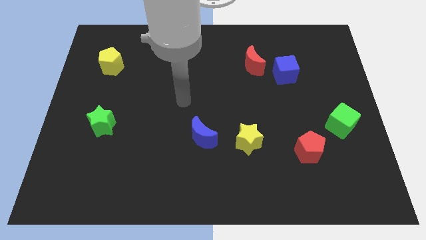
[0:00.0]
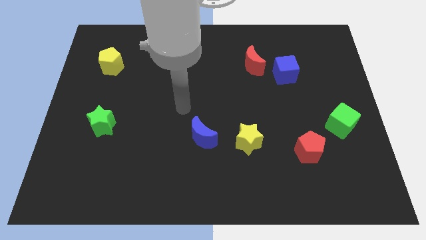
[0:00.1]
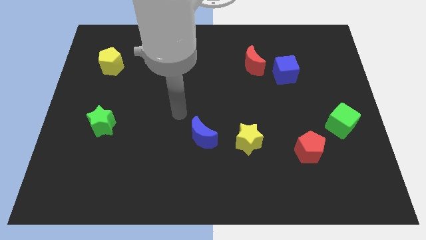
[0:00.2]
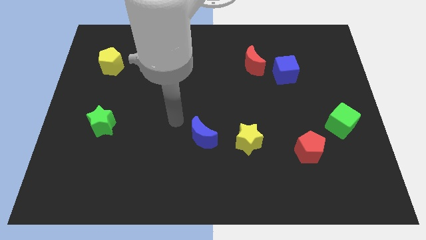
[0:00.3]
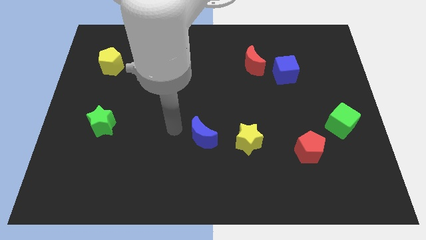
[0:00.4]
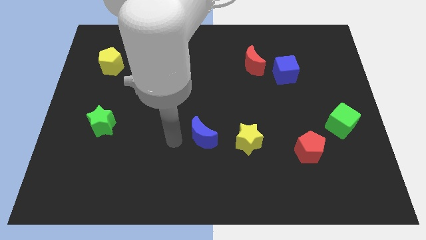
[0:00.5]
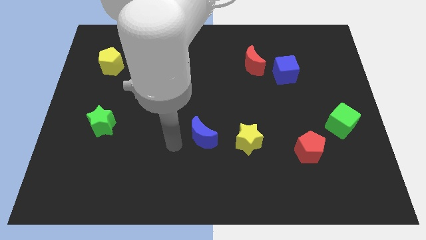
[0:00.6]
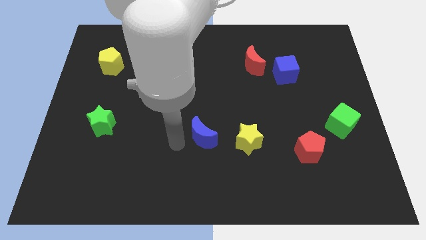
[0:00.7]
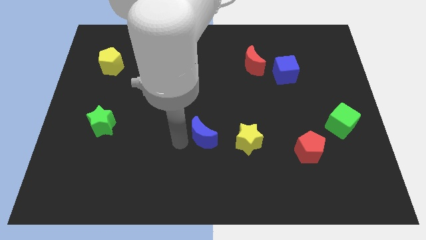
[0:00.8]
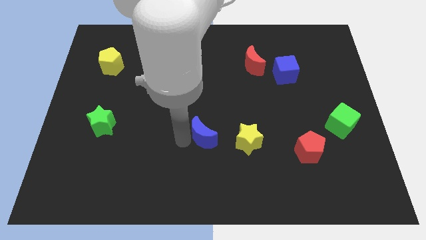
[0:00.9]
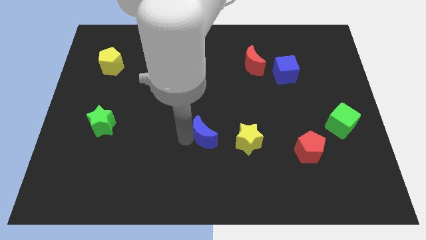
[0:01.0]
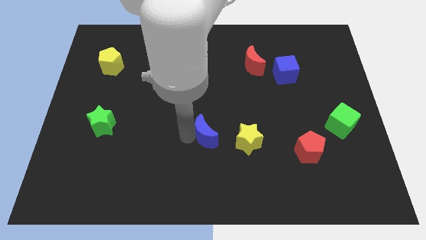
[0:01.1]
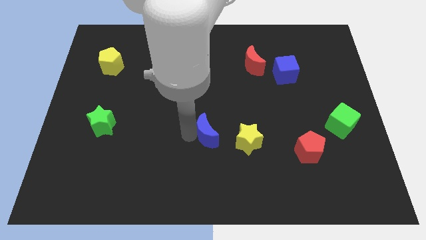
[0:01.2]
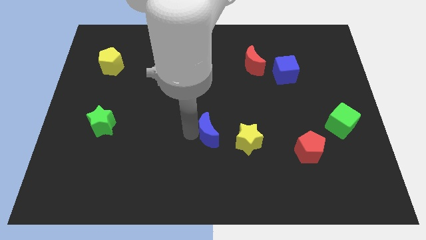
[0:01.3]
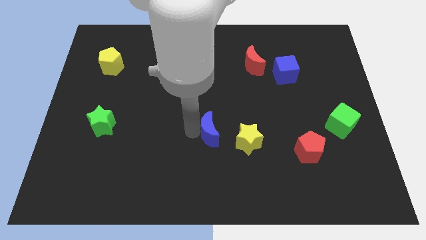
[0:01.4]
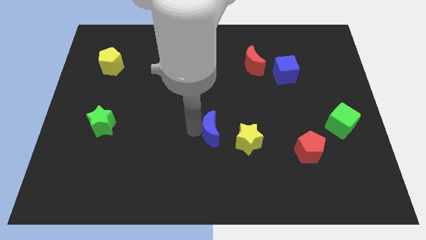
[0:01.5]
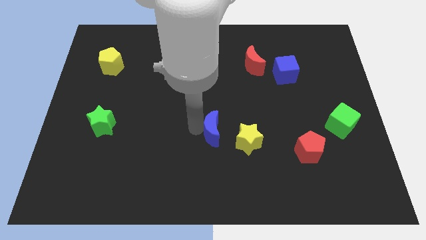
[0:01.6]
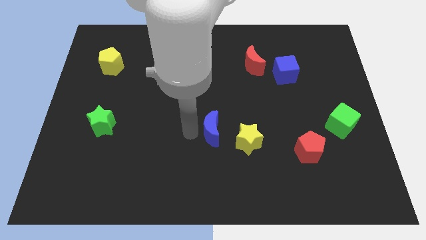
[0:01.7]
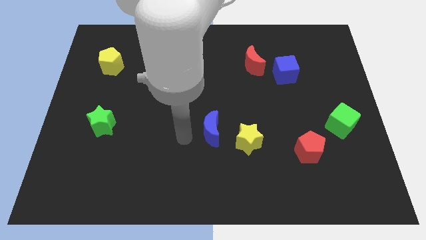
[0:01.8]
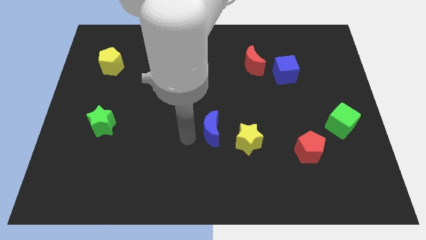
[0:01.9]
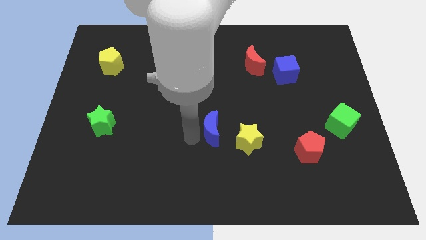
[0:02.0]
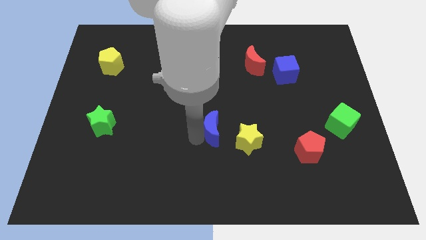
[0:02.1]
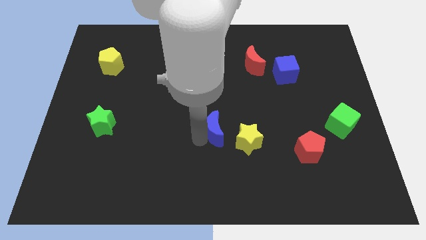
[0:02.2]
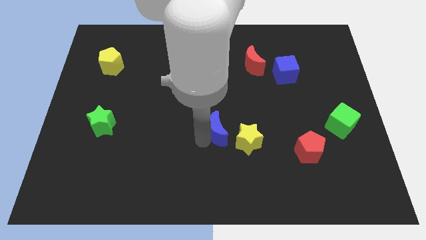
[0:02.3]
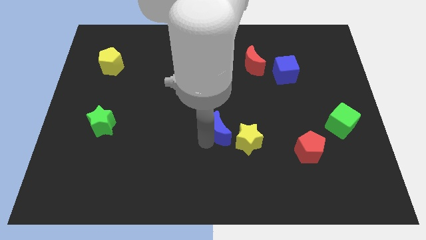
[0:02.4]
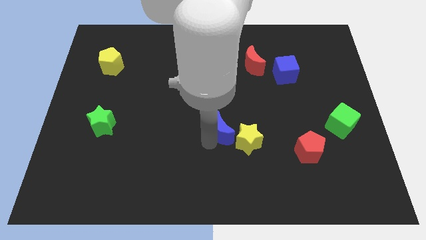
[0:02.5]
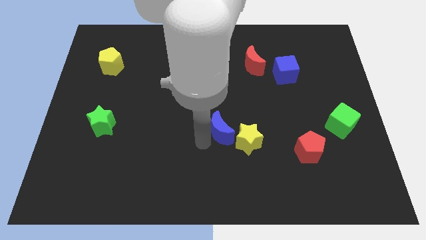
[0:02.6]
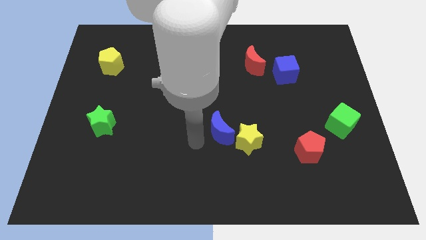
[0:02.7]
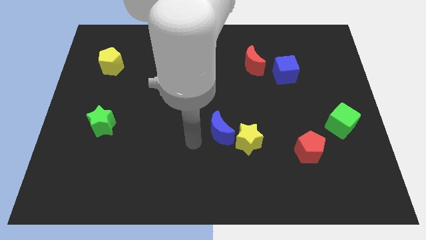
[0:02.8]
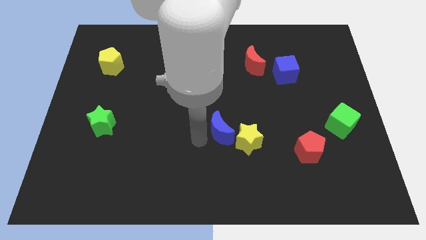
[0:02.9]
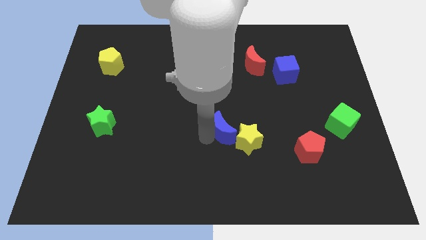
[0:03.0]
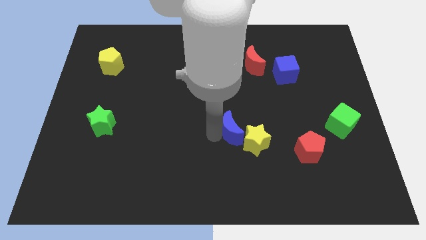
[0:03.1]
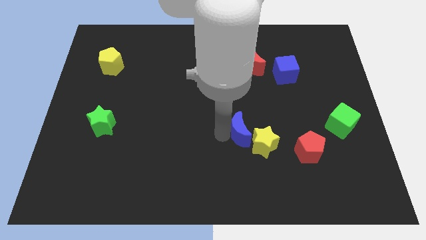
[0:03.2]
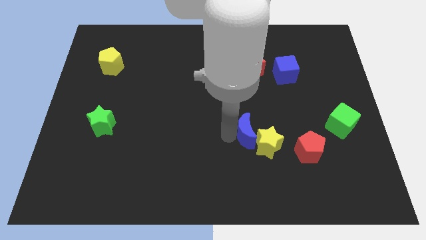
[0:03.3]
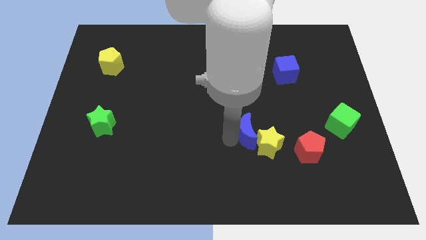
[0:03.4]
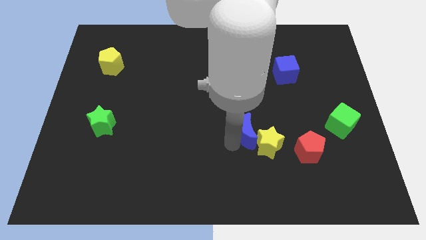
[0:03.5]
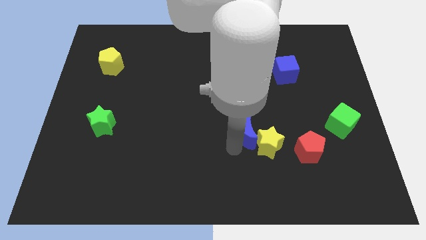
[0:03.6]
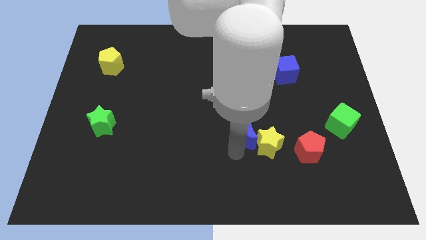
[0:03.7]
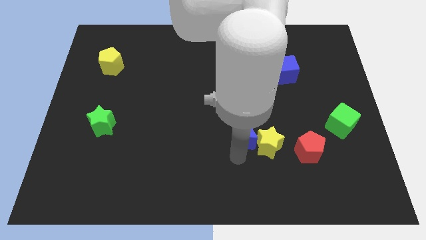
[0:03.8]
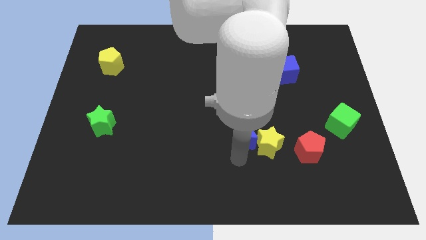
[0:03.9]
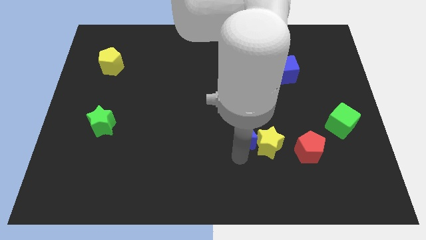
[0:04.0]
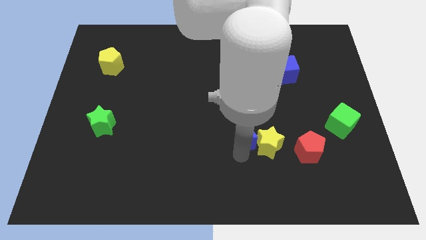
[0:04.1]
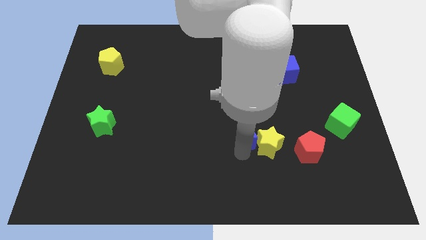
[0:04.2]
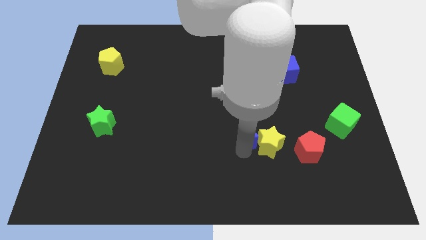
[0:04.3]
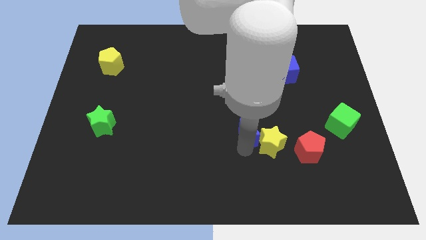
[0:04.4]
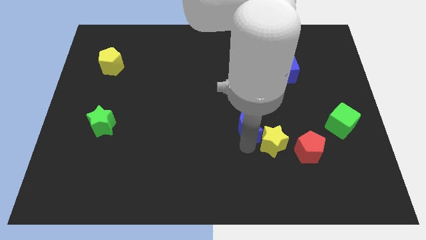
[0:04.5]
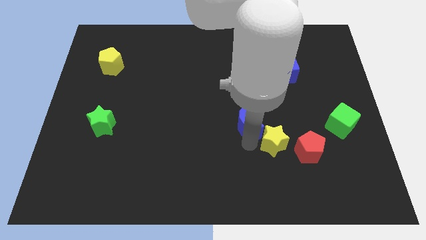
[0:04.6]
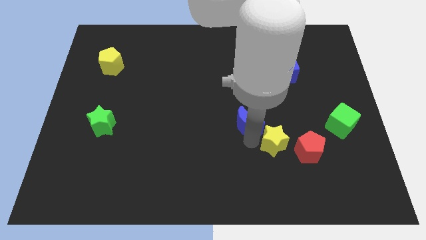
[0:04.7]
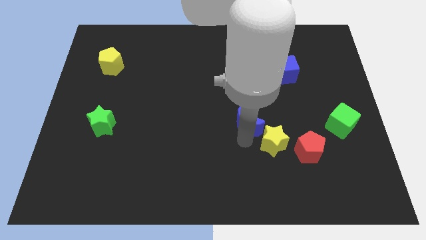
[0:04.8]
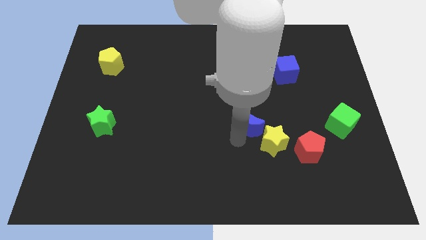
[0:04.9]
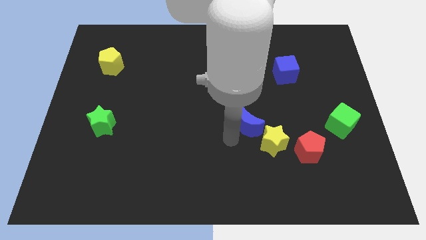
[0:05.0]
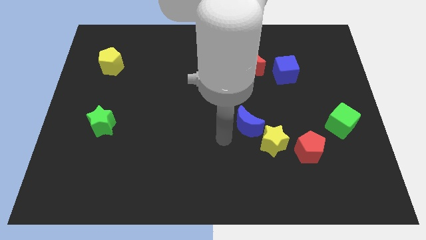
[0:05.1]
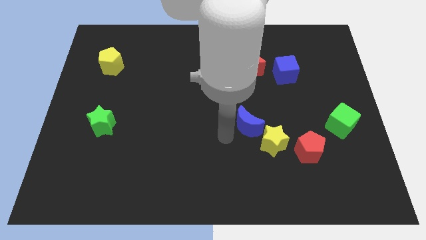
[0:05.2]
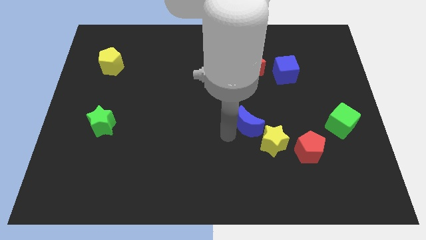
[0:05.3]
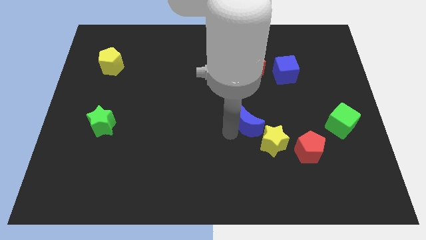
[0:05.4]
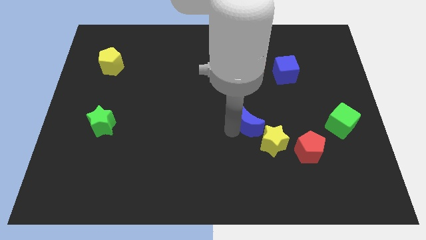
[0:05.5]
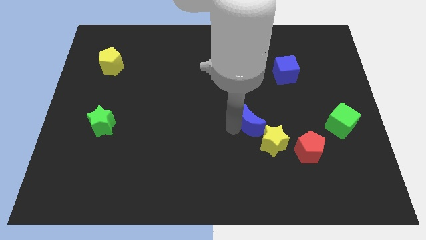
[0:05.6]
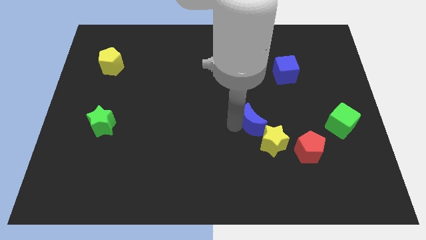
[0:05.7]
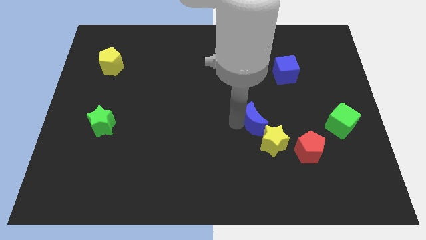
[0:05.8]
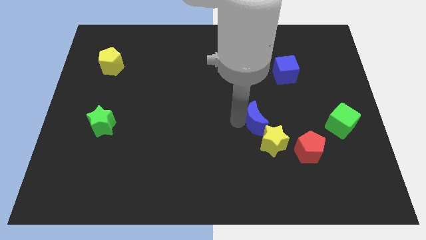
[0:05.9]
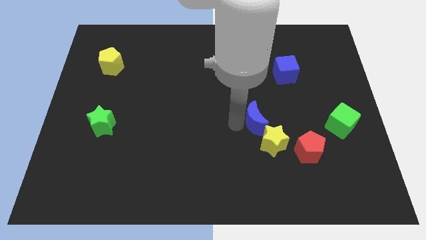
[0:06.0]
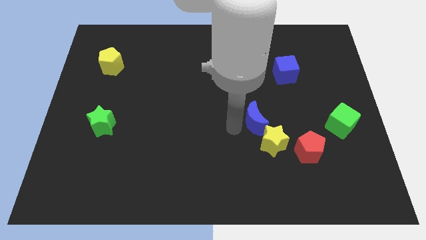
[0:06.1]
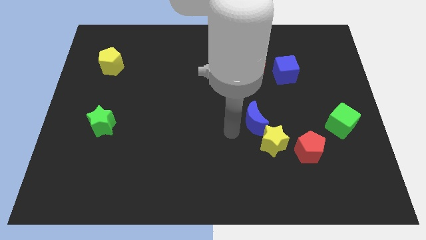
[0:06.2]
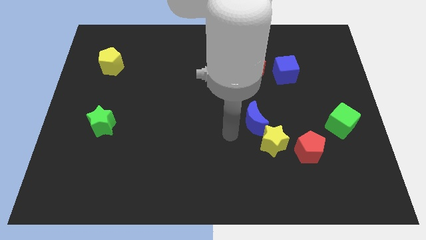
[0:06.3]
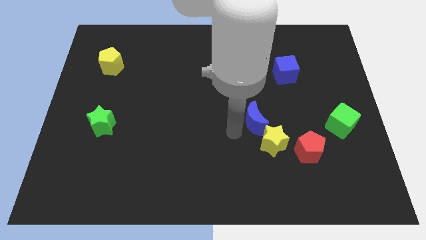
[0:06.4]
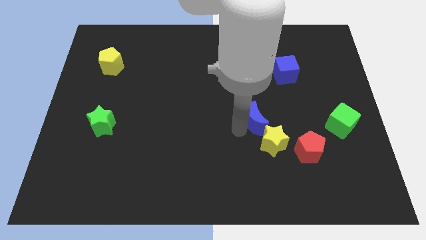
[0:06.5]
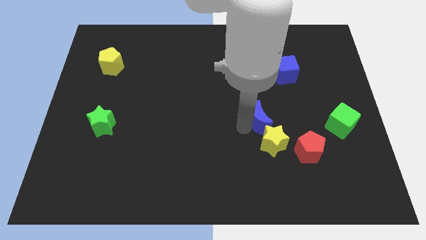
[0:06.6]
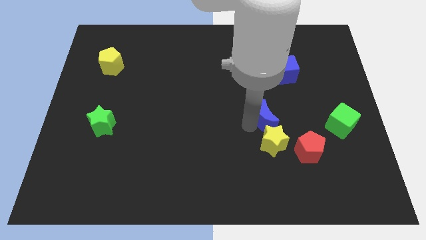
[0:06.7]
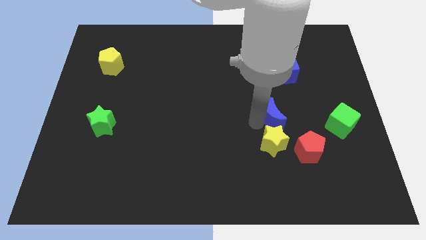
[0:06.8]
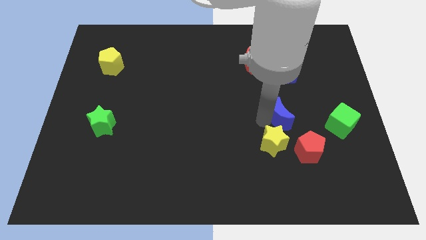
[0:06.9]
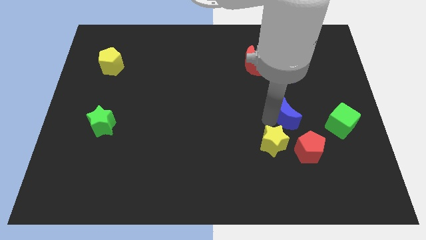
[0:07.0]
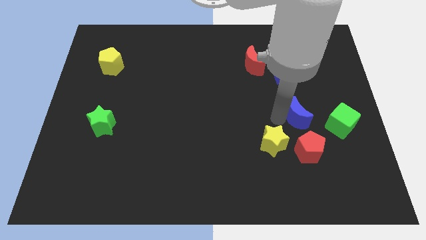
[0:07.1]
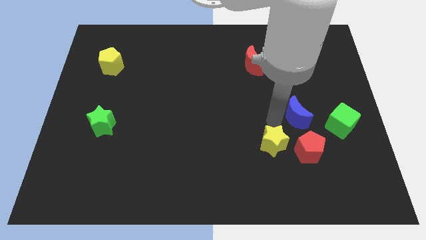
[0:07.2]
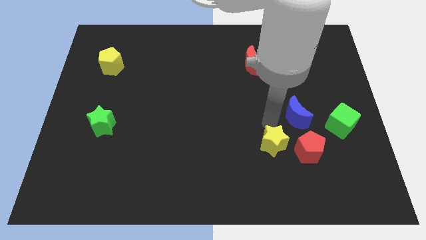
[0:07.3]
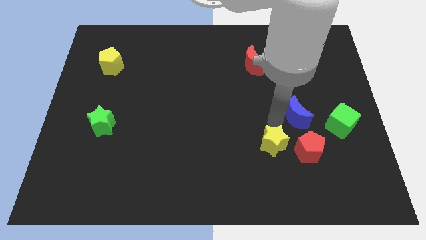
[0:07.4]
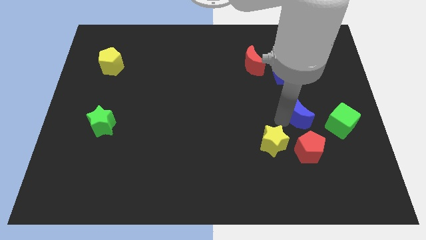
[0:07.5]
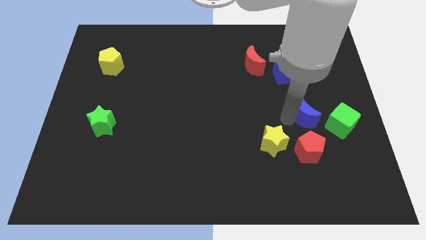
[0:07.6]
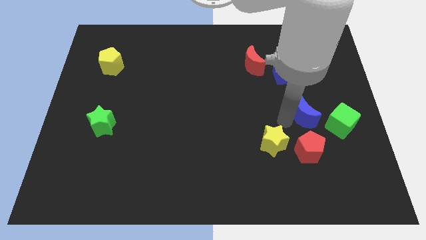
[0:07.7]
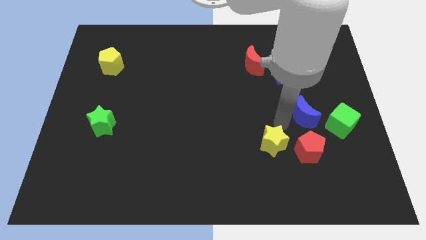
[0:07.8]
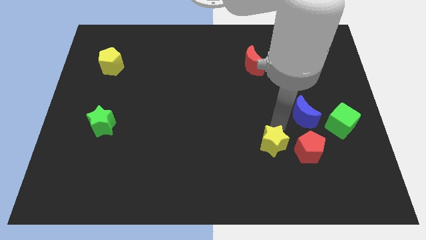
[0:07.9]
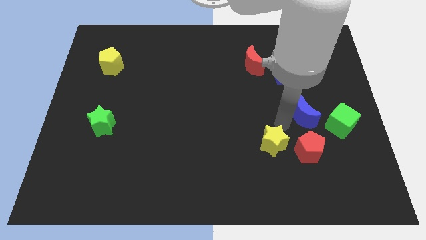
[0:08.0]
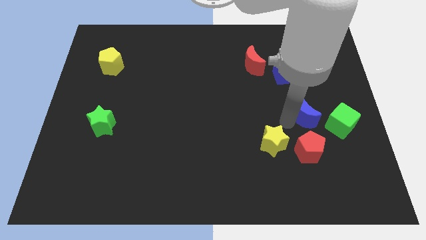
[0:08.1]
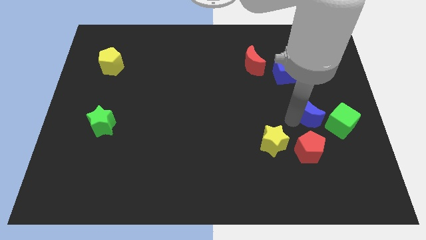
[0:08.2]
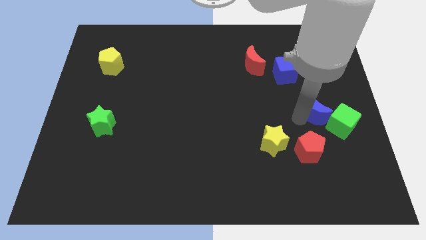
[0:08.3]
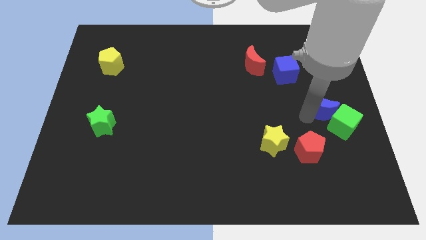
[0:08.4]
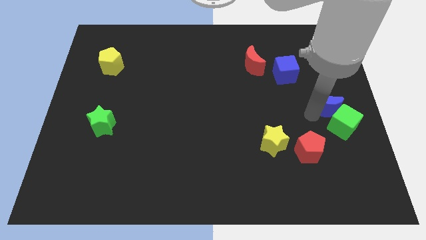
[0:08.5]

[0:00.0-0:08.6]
put the blue moon to the center right
